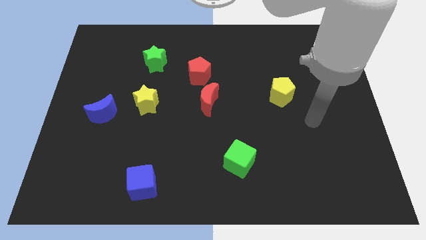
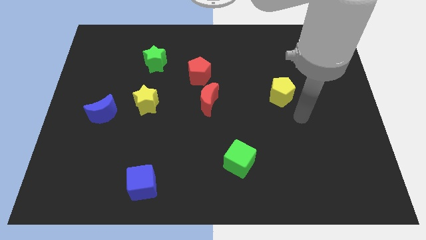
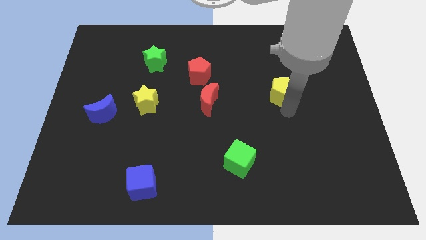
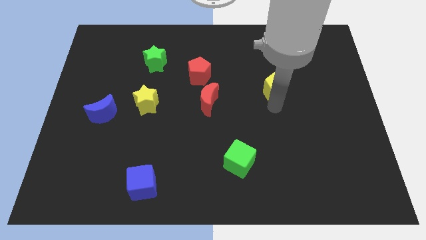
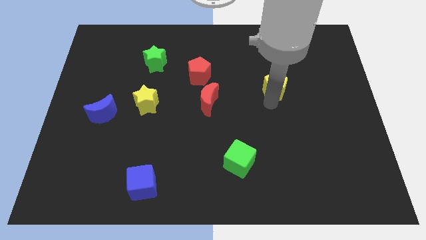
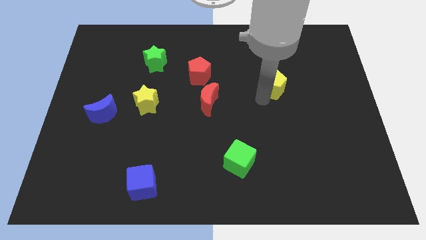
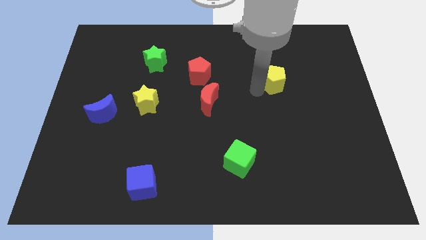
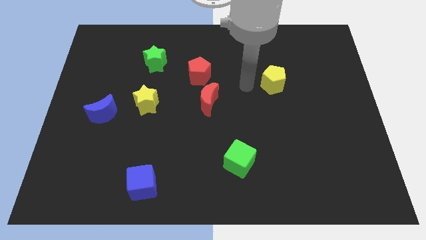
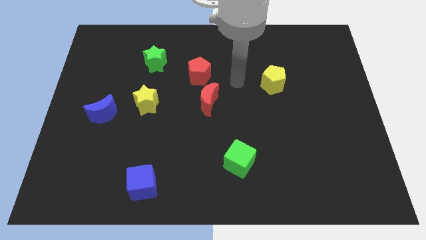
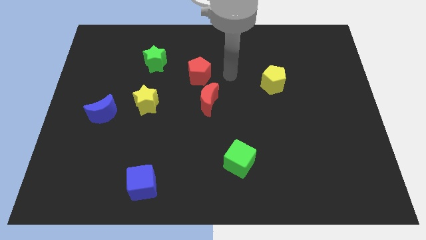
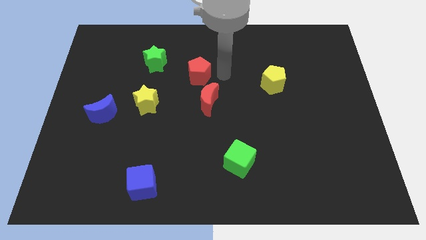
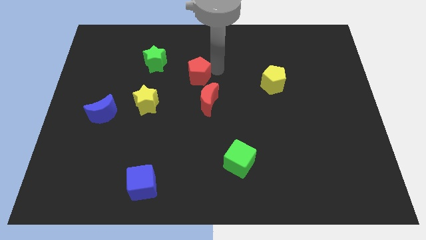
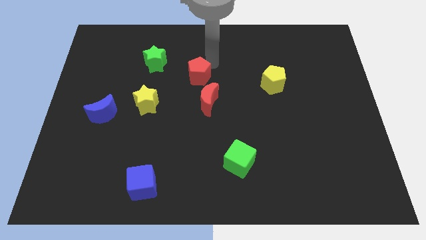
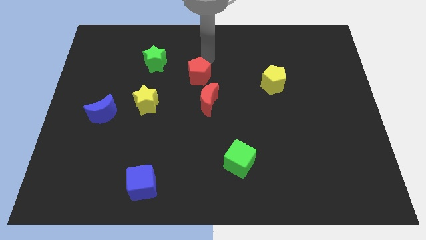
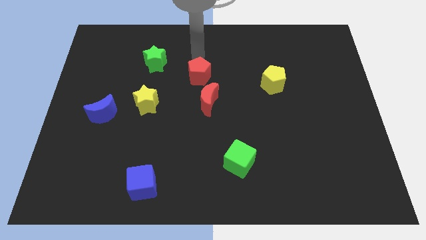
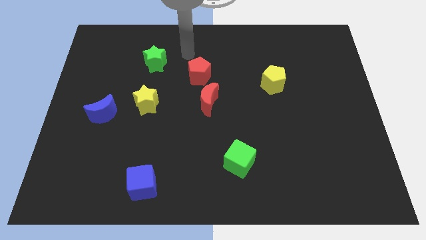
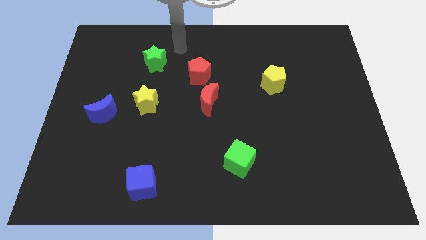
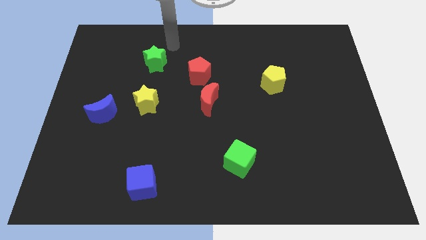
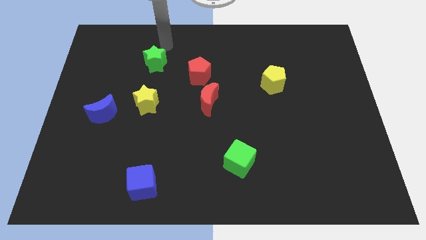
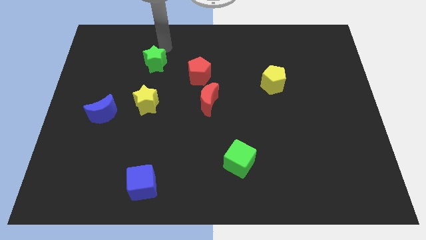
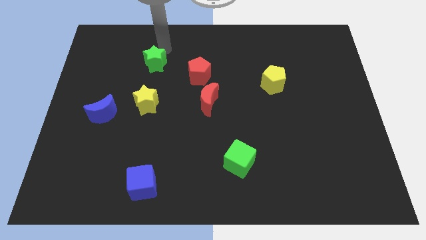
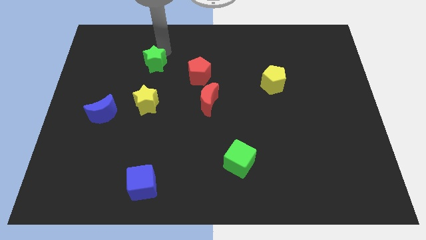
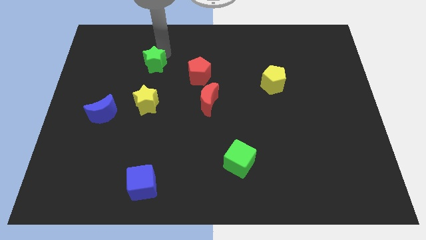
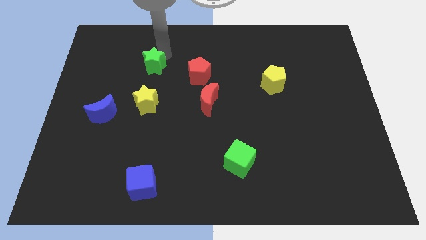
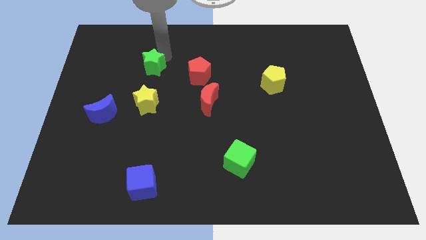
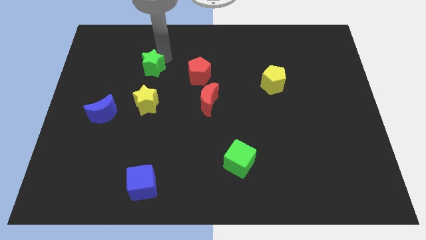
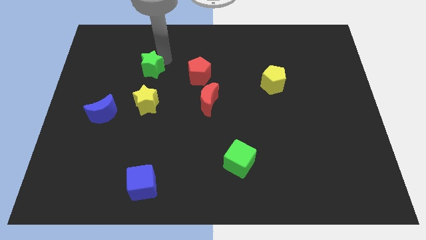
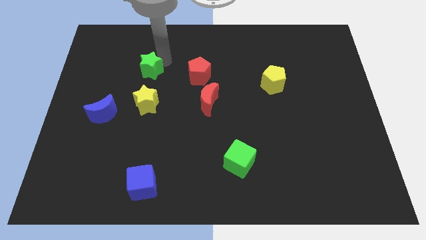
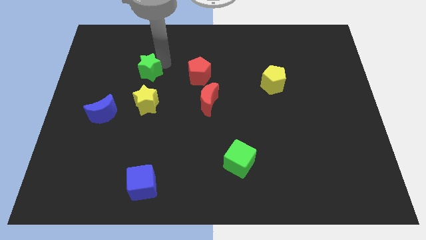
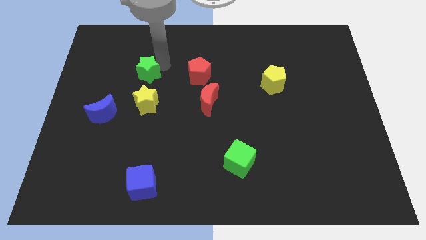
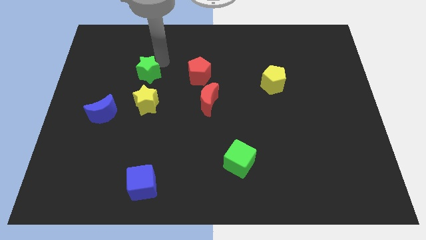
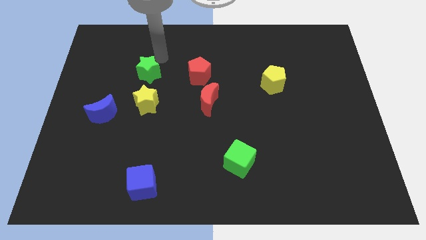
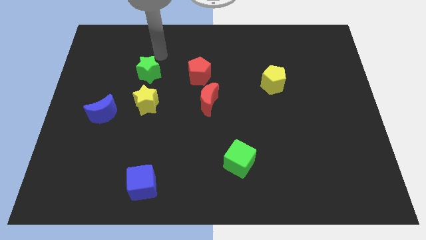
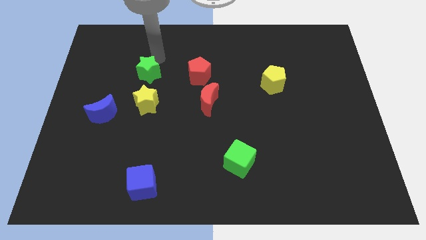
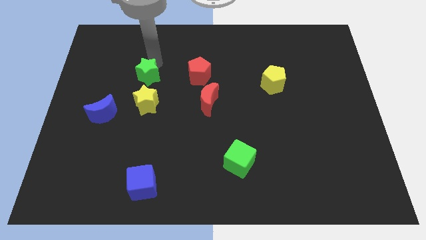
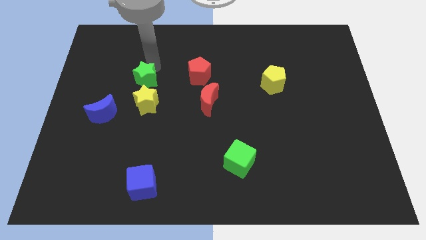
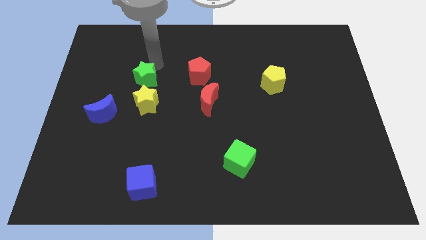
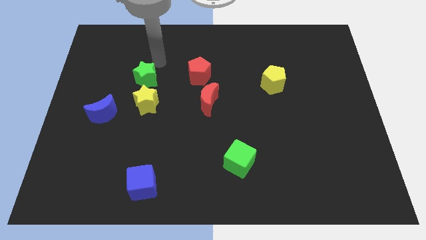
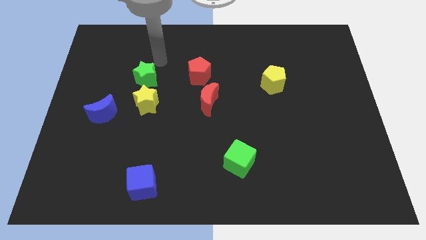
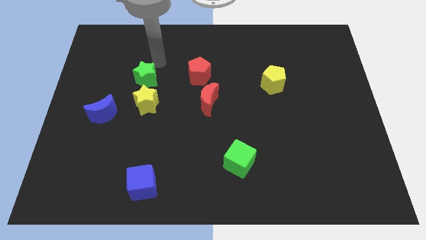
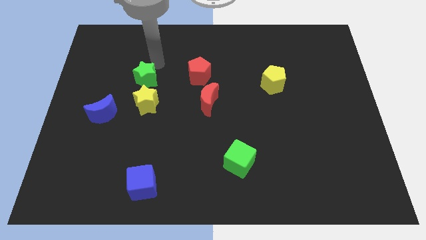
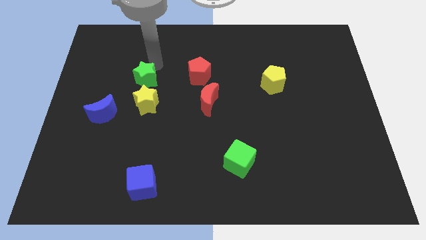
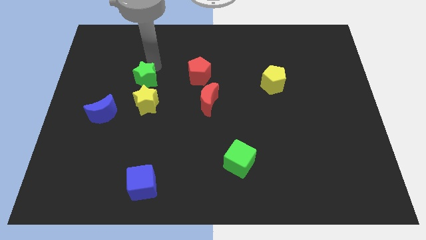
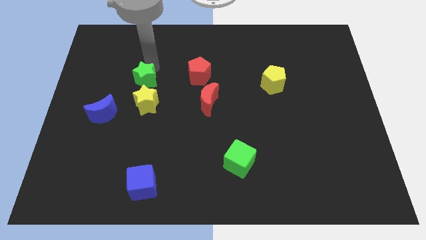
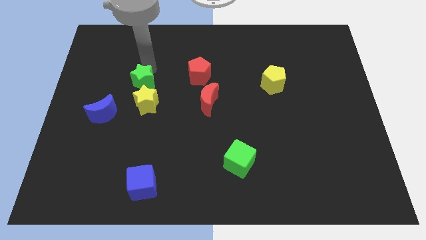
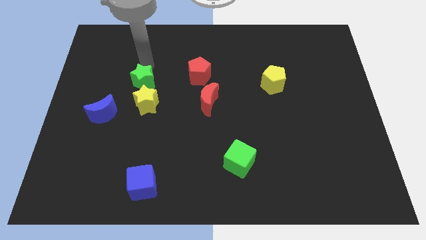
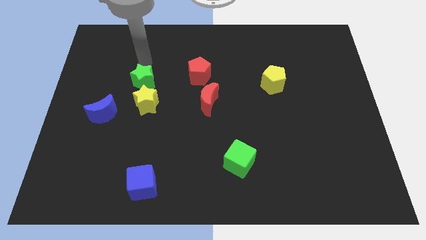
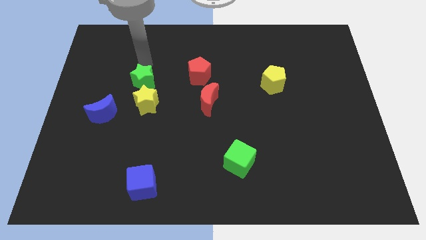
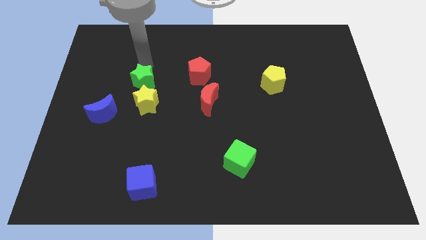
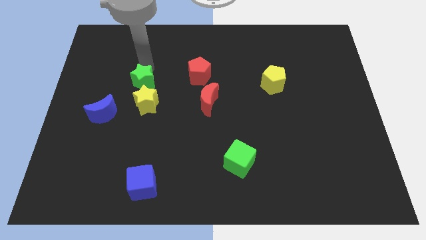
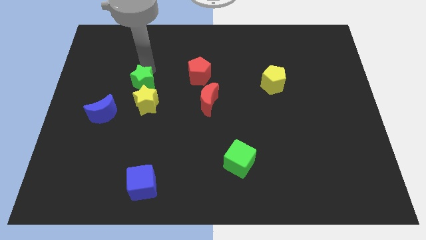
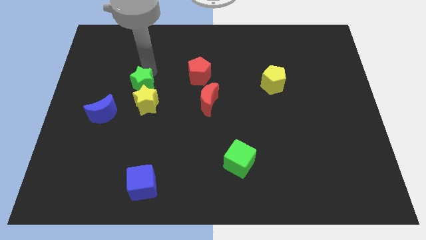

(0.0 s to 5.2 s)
slide the green star next to the yellow star

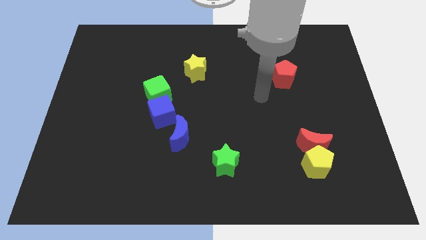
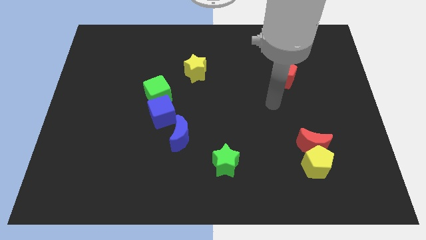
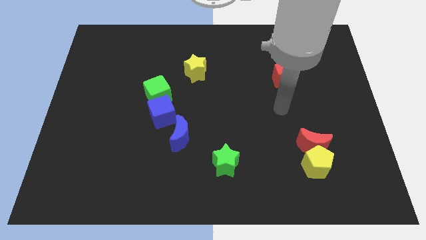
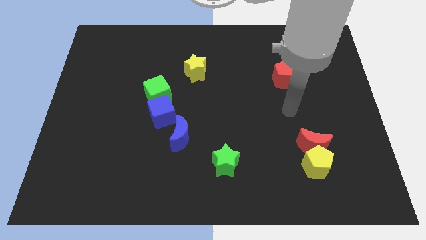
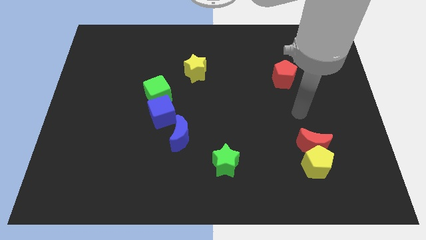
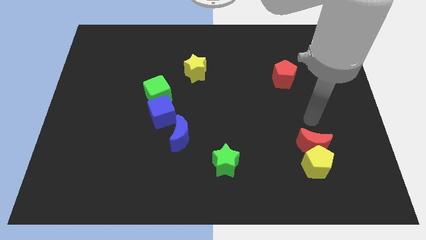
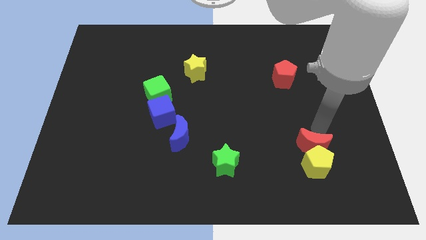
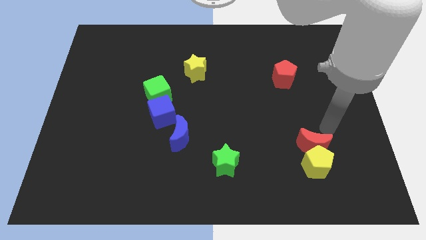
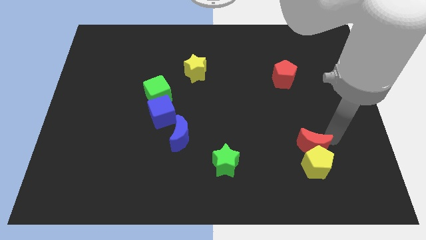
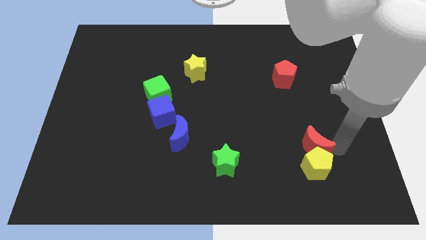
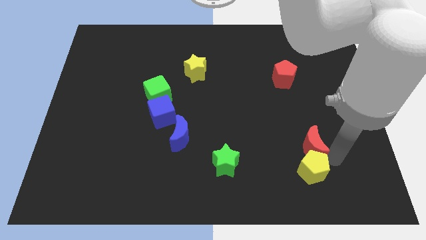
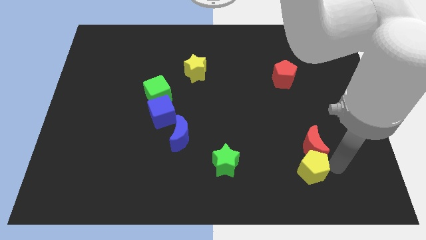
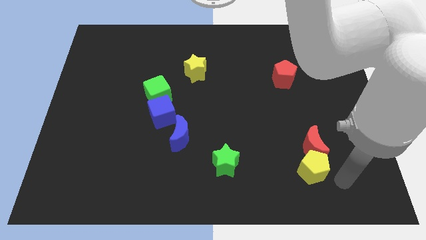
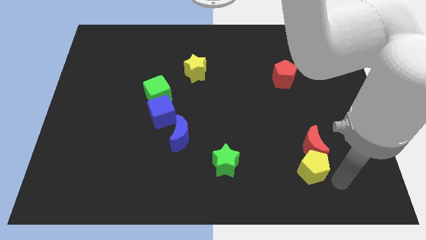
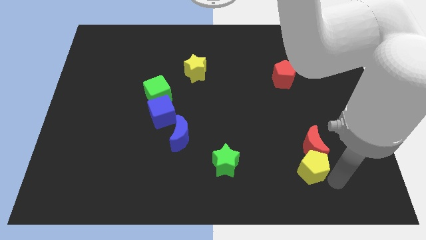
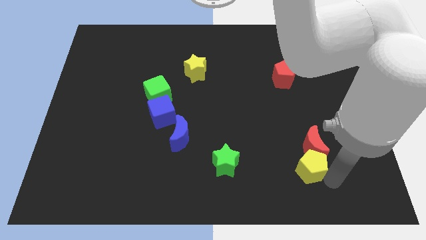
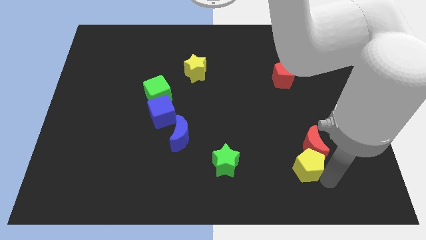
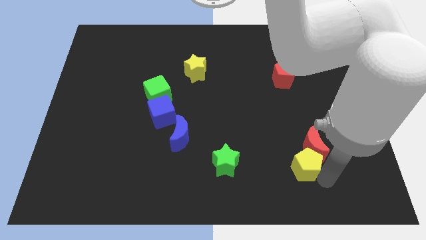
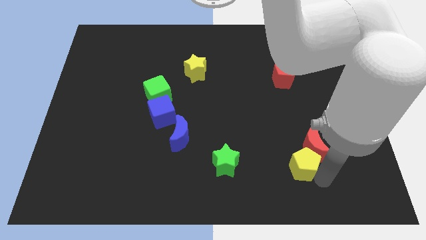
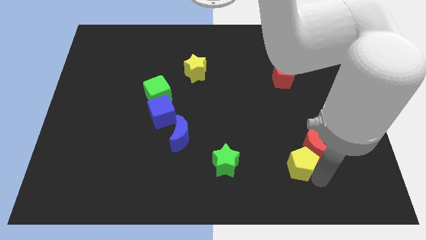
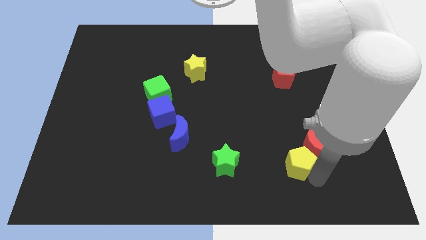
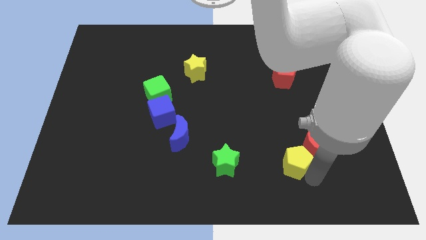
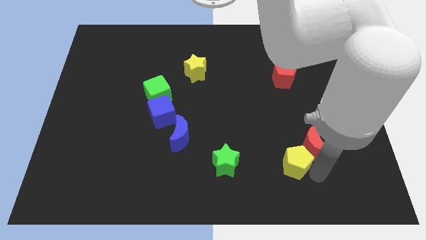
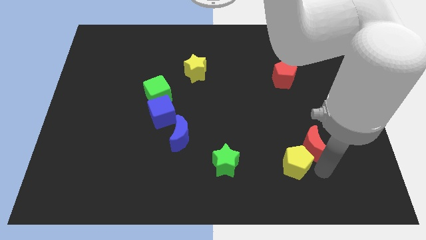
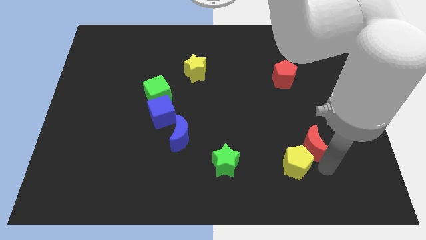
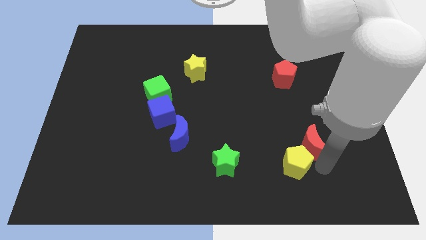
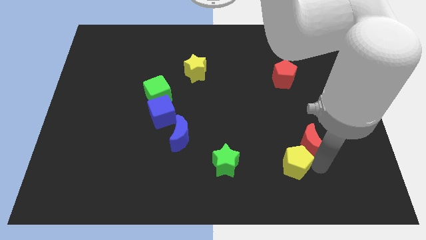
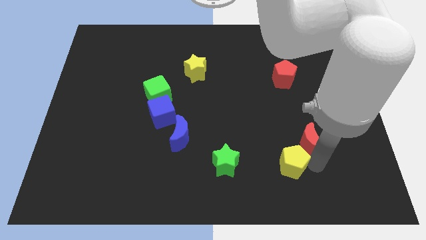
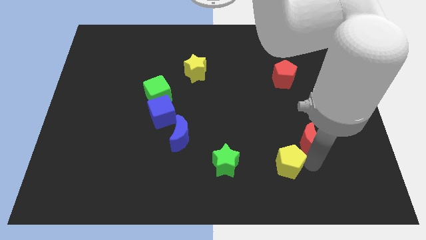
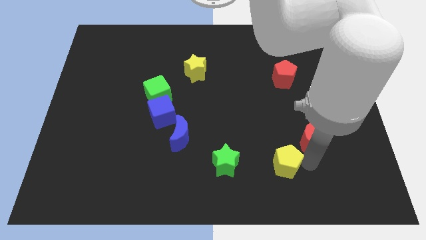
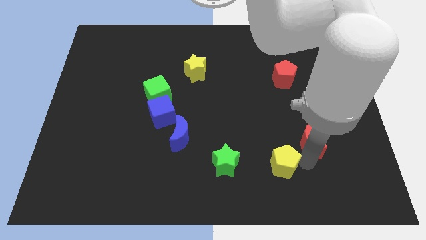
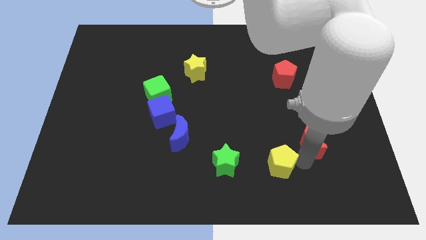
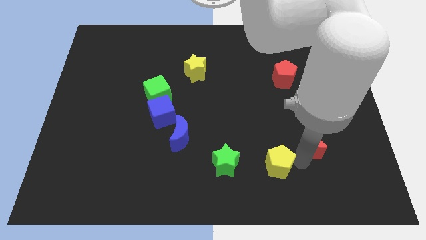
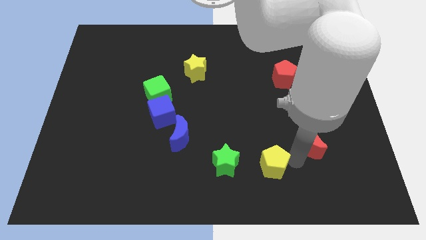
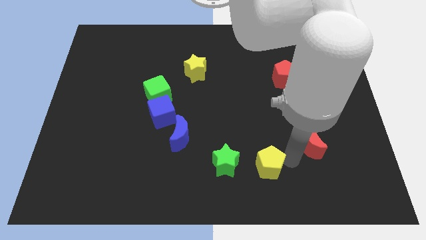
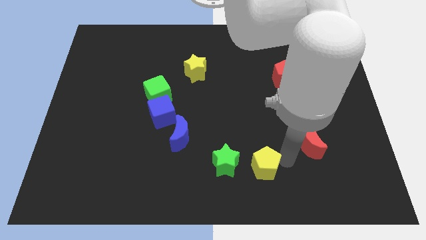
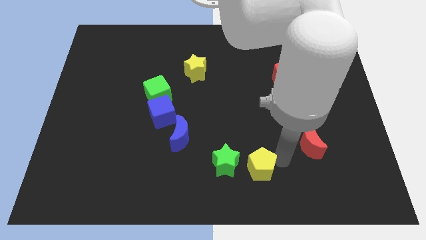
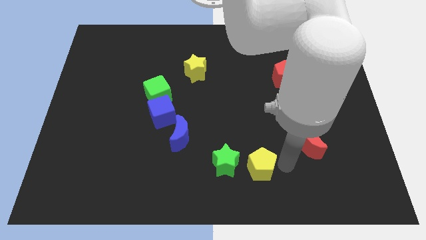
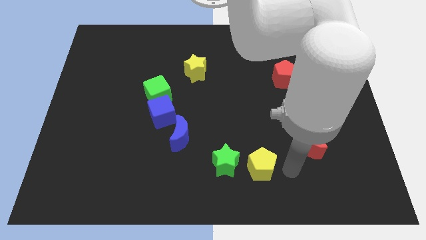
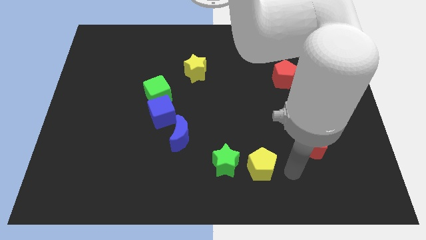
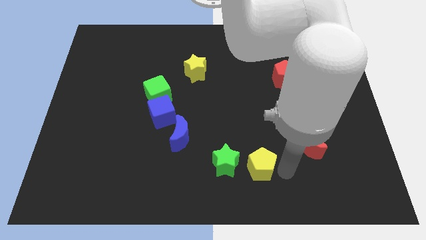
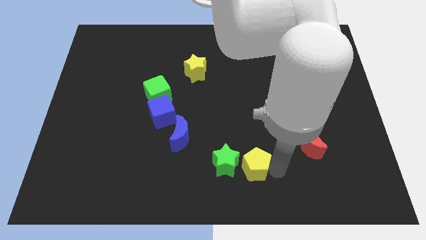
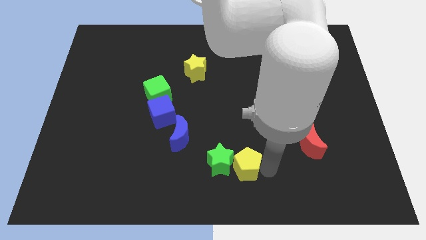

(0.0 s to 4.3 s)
move the yellow pentagon towards the green star
